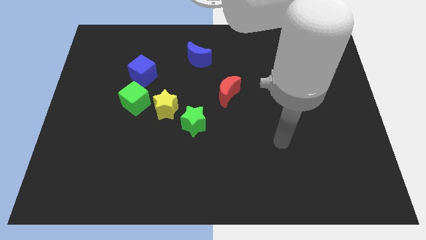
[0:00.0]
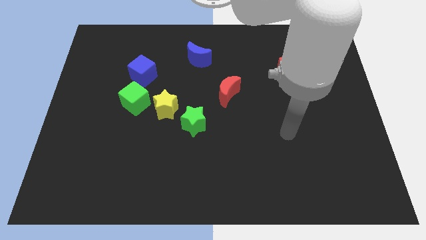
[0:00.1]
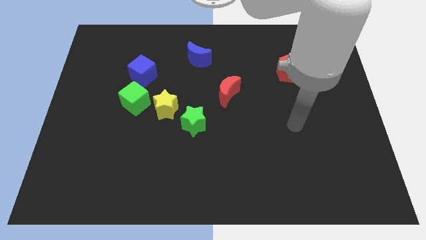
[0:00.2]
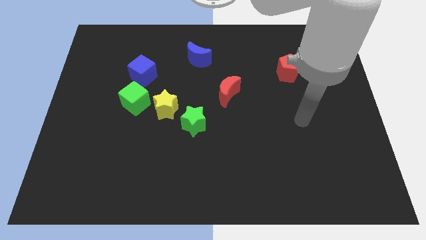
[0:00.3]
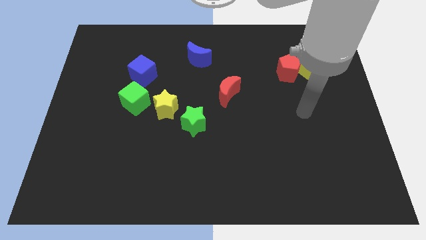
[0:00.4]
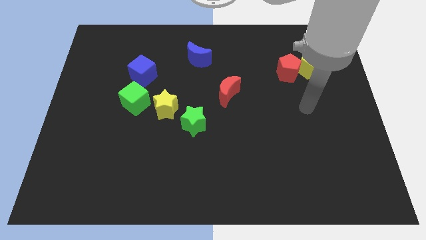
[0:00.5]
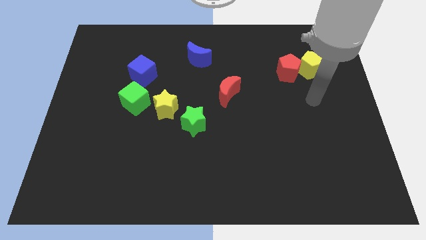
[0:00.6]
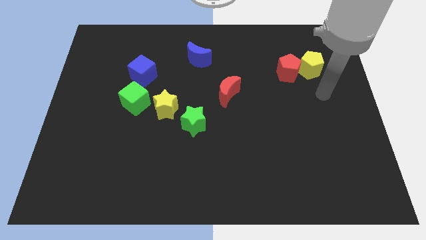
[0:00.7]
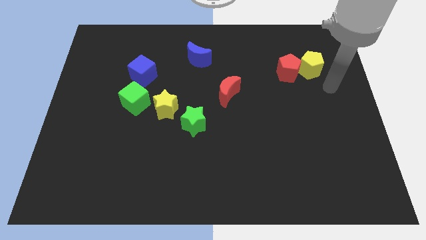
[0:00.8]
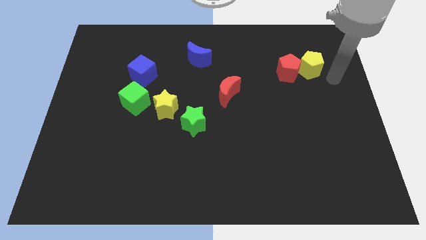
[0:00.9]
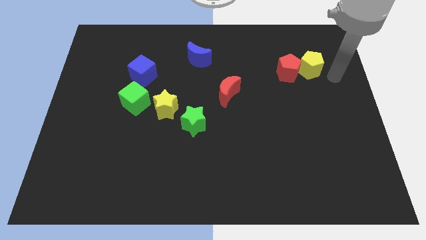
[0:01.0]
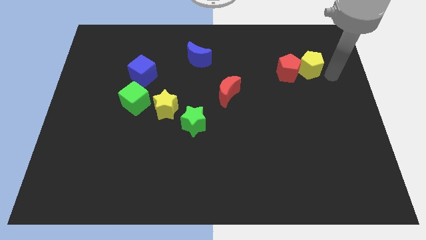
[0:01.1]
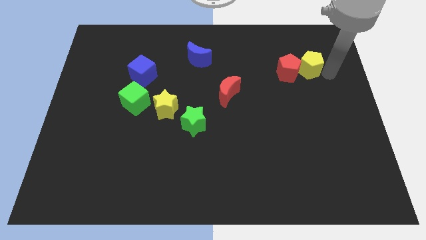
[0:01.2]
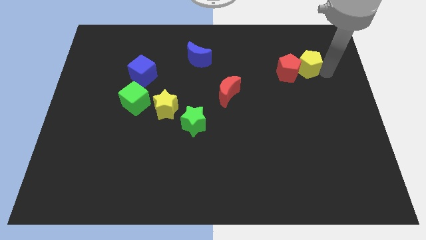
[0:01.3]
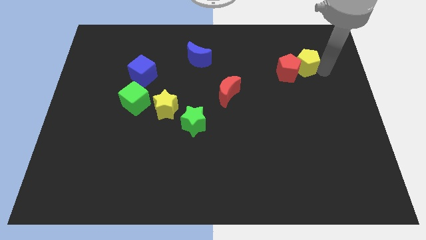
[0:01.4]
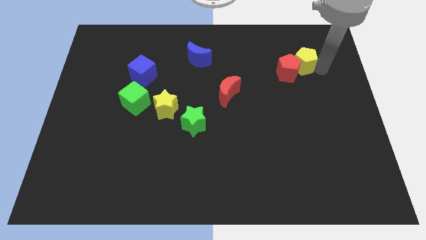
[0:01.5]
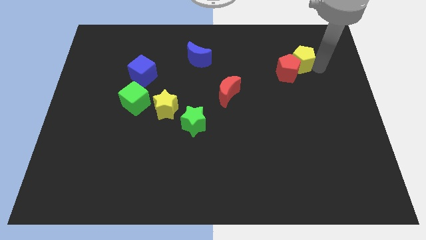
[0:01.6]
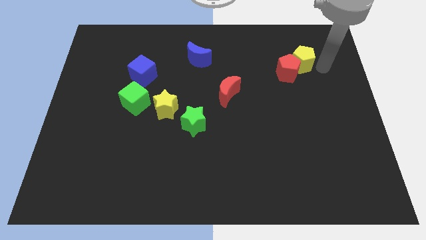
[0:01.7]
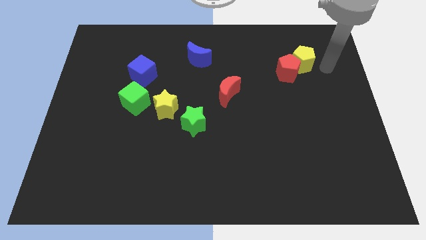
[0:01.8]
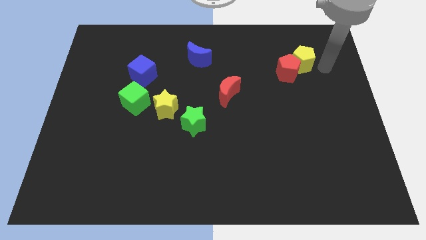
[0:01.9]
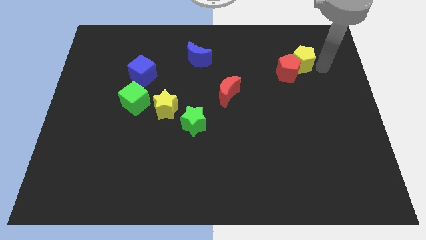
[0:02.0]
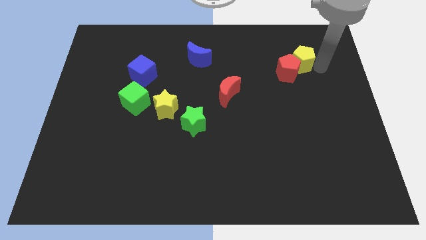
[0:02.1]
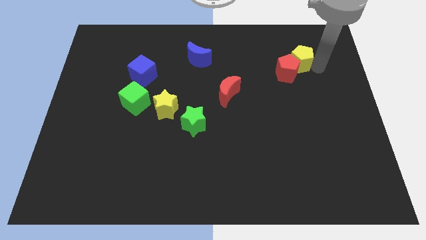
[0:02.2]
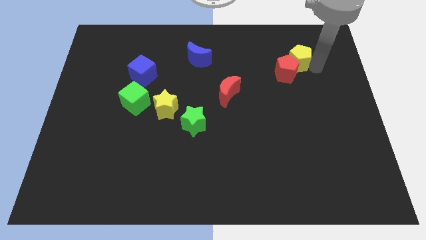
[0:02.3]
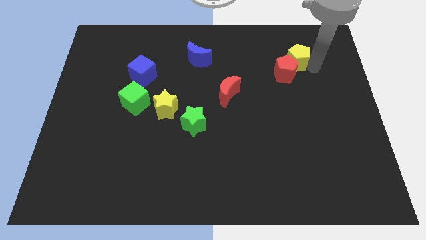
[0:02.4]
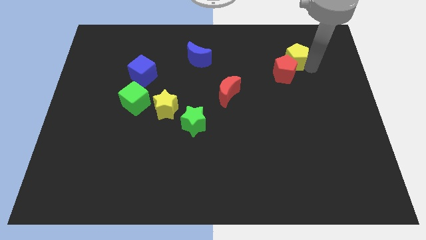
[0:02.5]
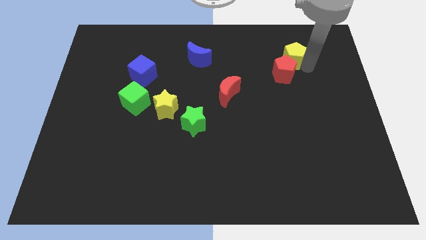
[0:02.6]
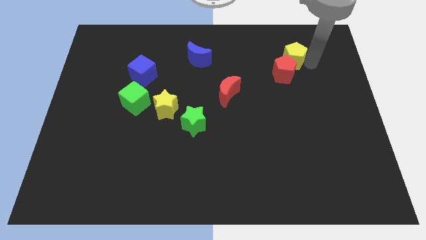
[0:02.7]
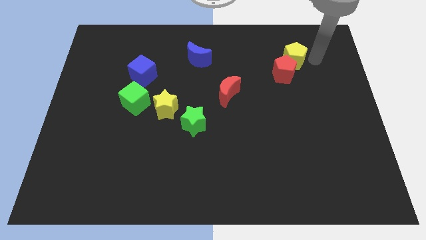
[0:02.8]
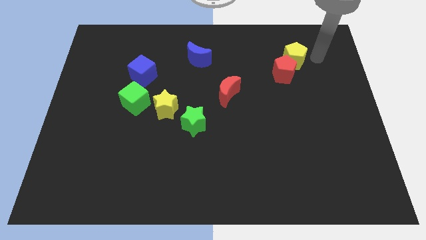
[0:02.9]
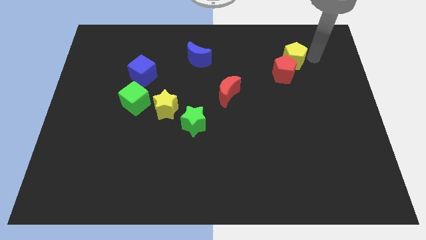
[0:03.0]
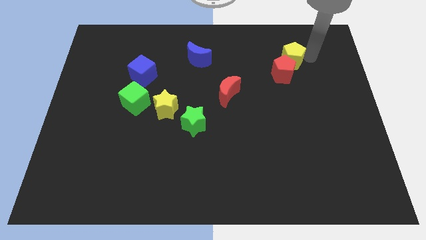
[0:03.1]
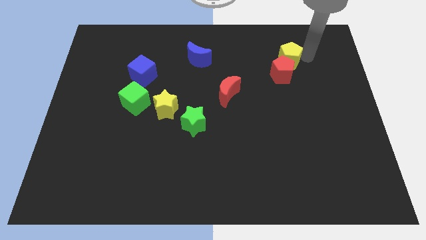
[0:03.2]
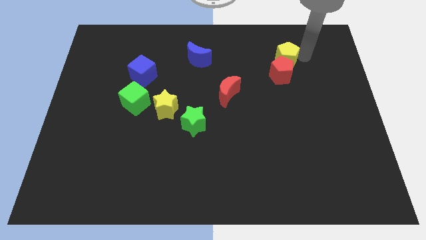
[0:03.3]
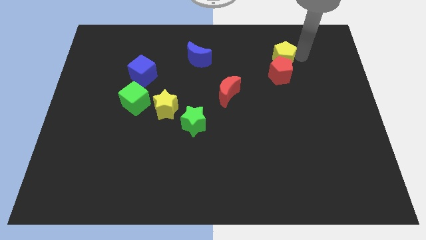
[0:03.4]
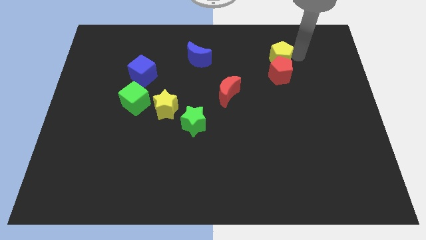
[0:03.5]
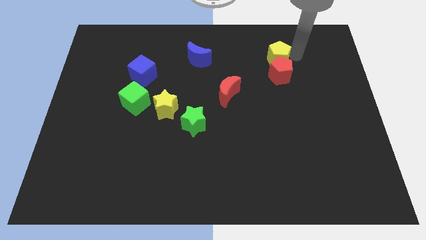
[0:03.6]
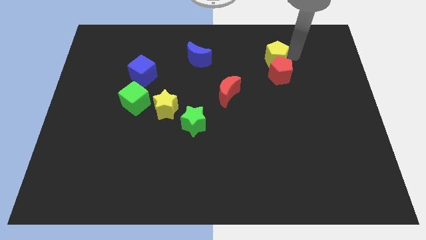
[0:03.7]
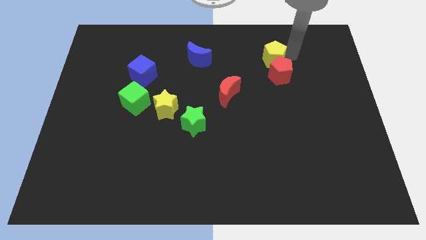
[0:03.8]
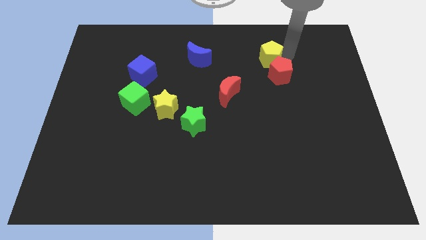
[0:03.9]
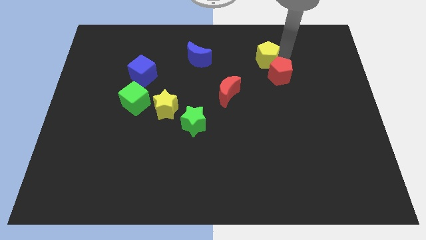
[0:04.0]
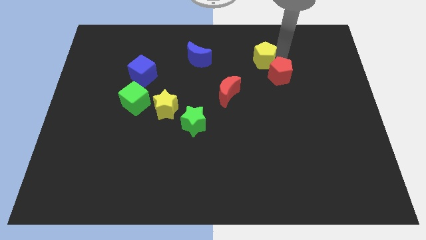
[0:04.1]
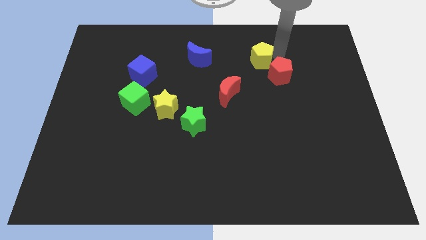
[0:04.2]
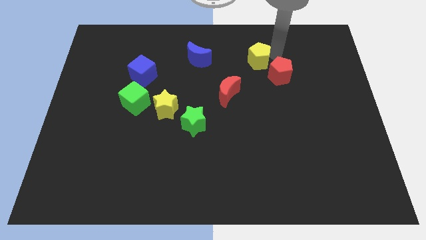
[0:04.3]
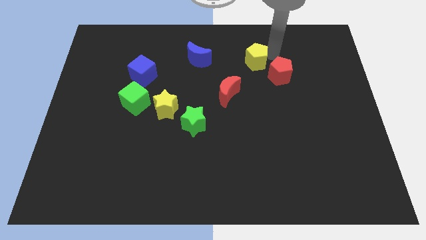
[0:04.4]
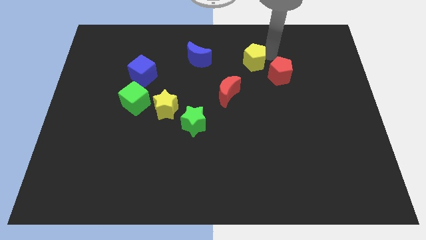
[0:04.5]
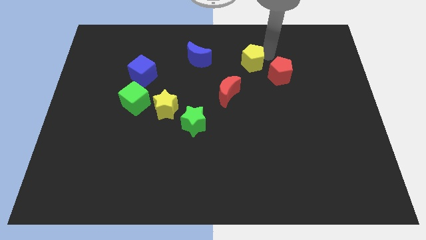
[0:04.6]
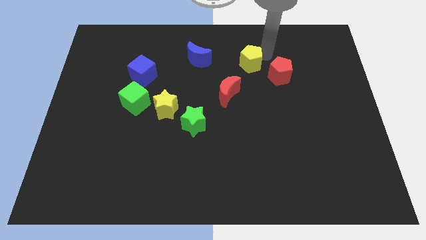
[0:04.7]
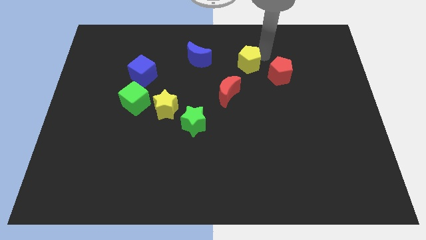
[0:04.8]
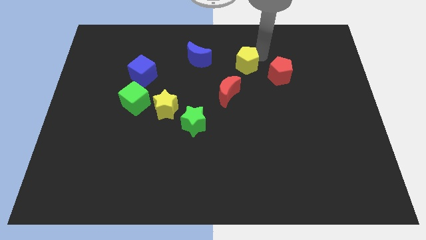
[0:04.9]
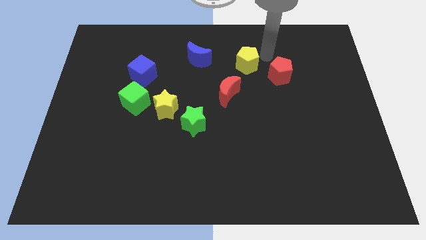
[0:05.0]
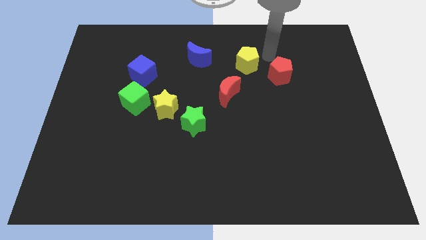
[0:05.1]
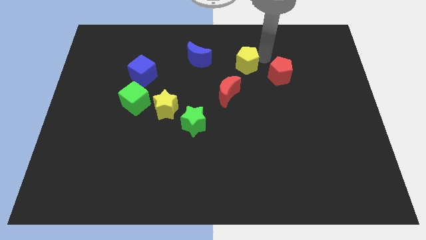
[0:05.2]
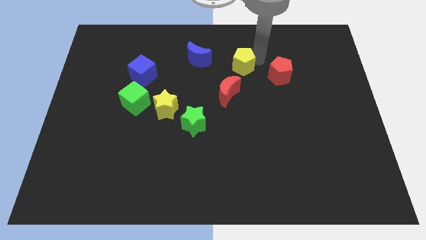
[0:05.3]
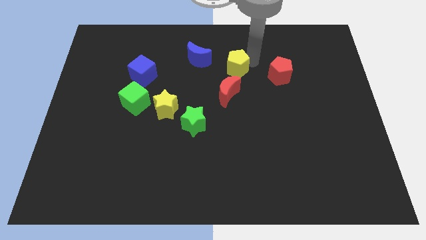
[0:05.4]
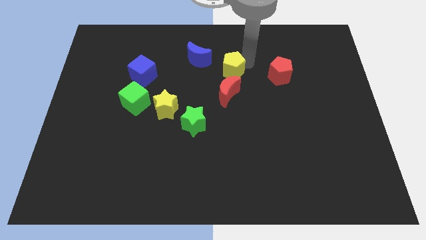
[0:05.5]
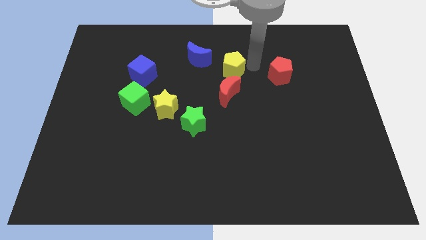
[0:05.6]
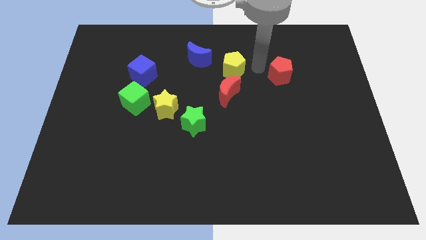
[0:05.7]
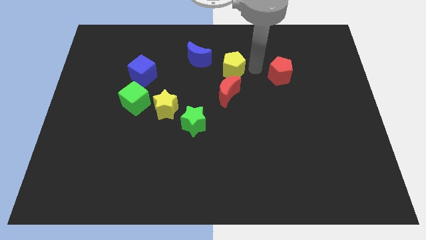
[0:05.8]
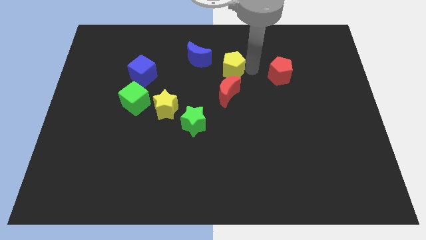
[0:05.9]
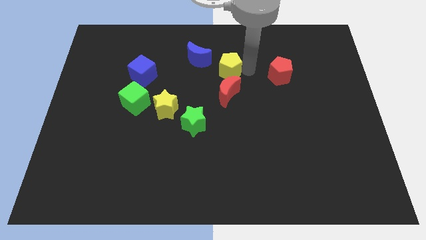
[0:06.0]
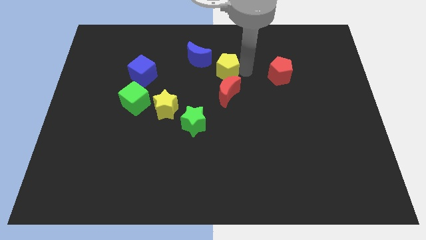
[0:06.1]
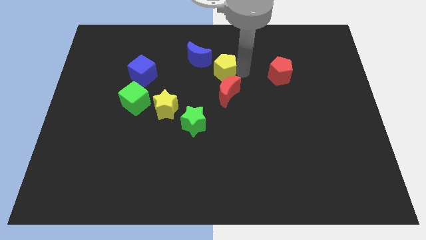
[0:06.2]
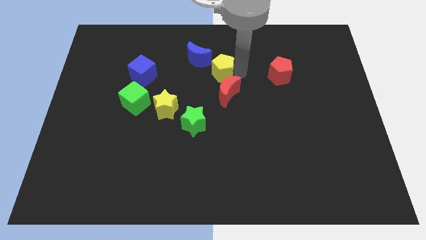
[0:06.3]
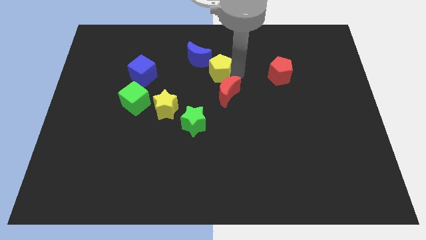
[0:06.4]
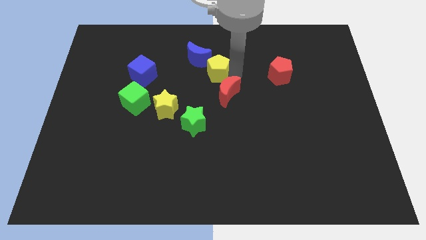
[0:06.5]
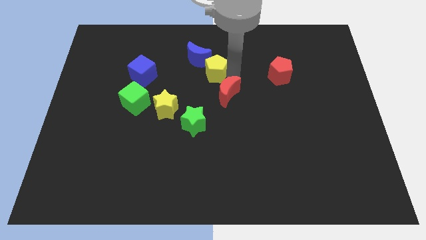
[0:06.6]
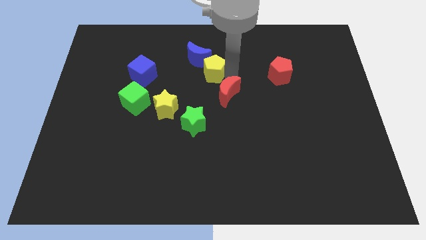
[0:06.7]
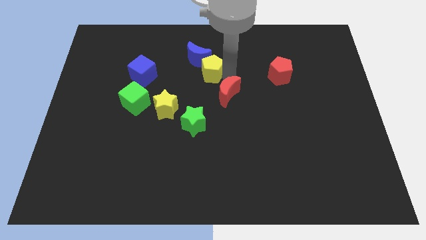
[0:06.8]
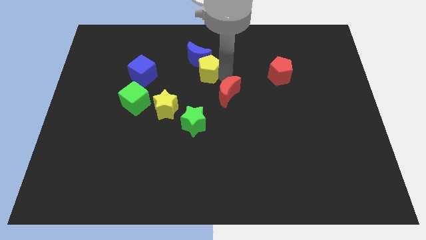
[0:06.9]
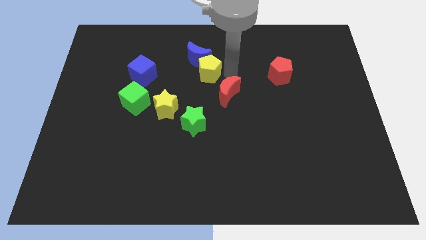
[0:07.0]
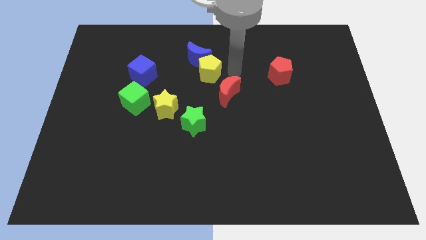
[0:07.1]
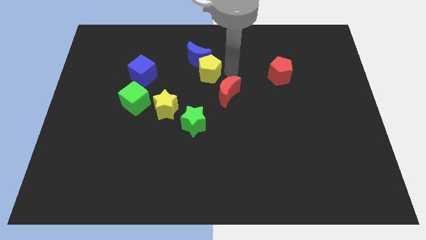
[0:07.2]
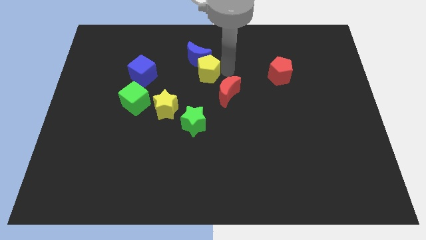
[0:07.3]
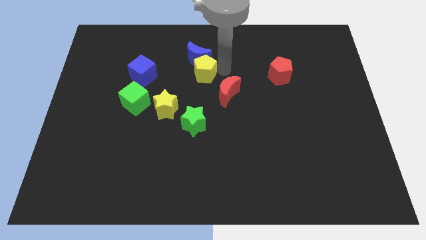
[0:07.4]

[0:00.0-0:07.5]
move the yellow pentagon to the bottom left of the blue moon
